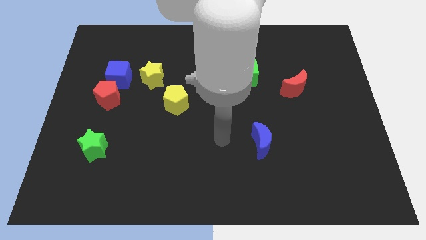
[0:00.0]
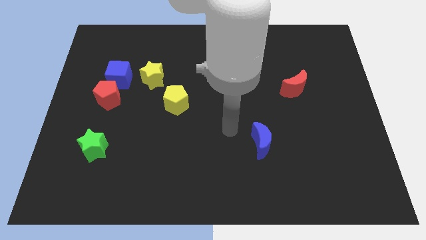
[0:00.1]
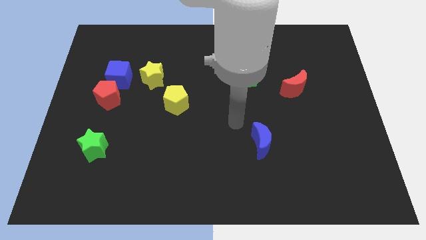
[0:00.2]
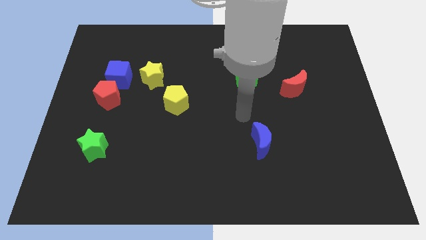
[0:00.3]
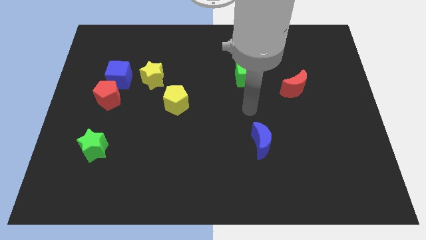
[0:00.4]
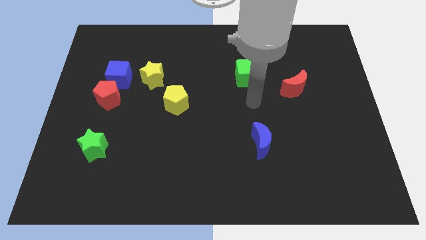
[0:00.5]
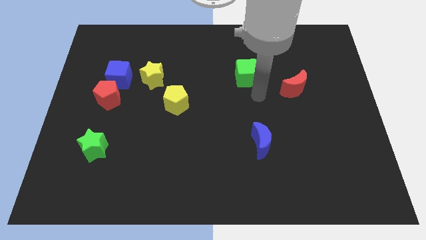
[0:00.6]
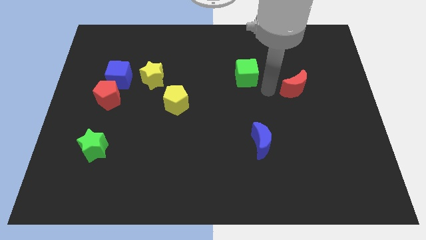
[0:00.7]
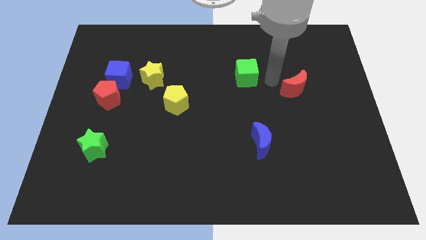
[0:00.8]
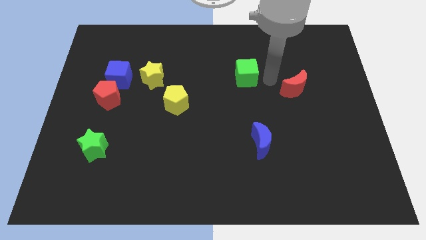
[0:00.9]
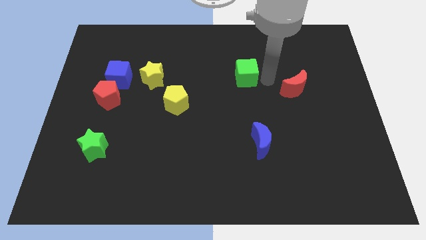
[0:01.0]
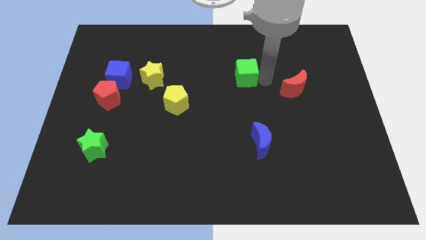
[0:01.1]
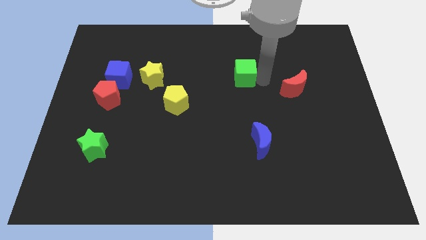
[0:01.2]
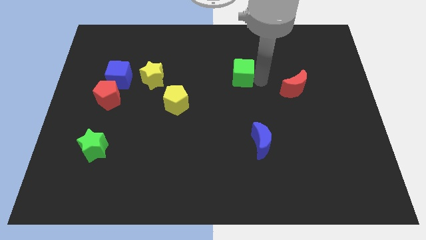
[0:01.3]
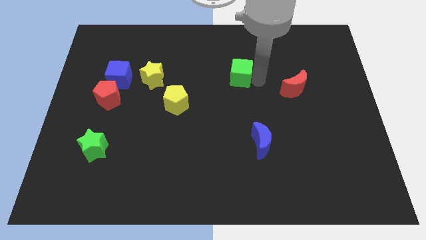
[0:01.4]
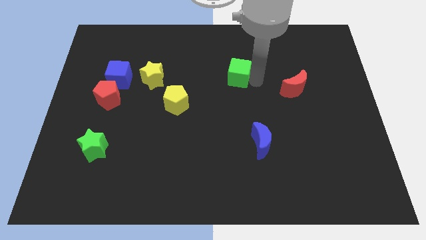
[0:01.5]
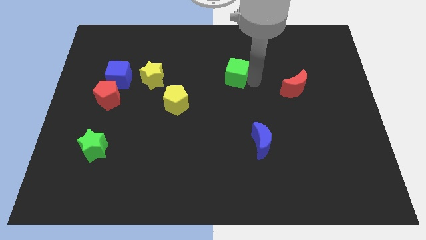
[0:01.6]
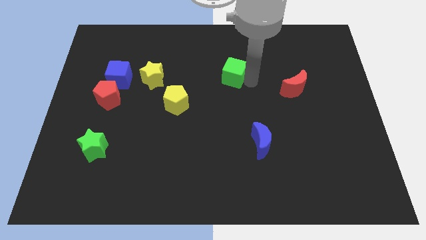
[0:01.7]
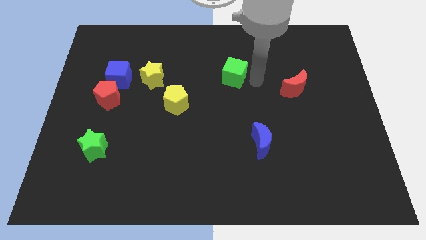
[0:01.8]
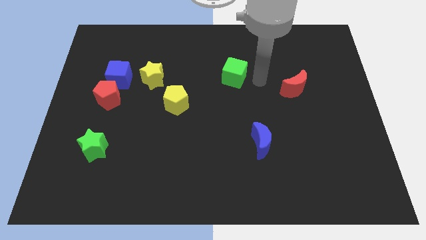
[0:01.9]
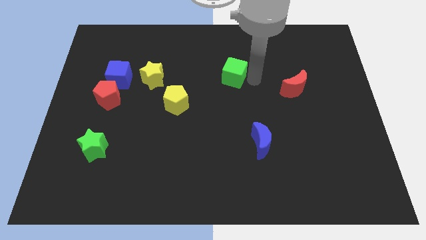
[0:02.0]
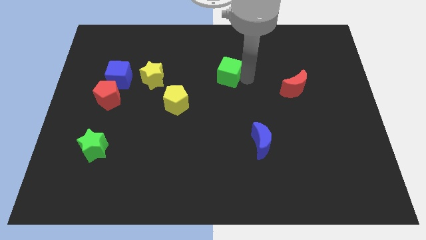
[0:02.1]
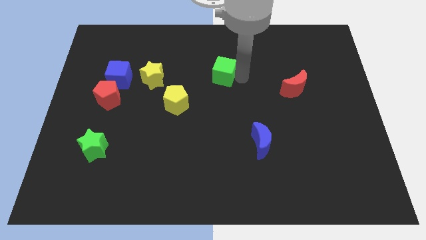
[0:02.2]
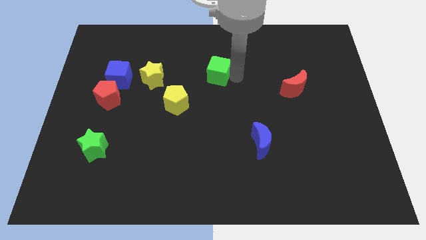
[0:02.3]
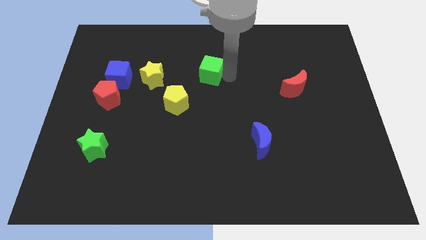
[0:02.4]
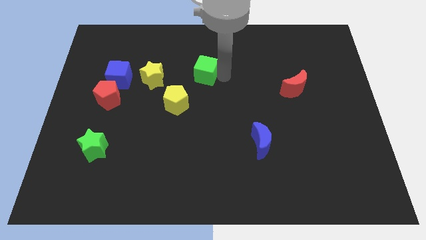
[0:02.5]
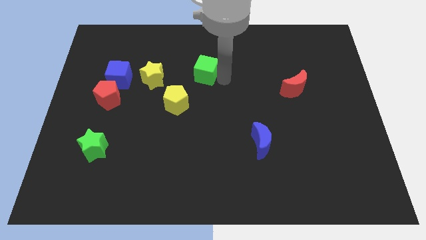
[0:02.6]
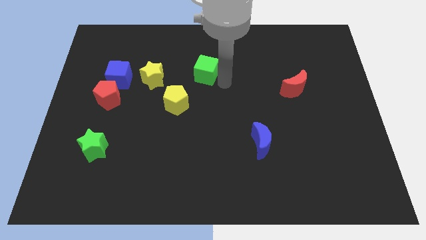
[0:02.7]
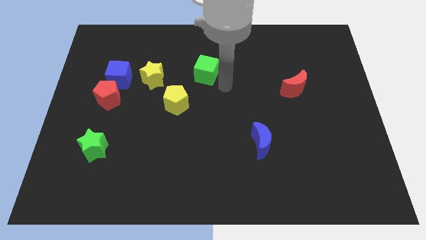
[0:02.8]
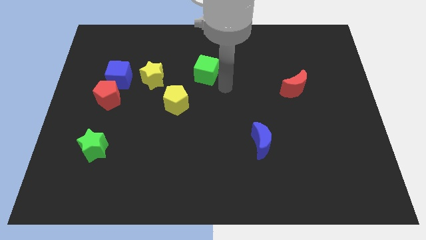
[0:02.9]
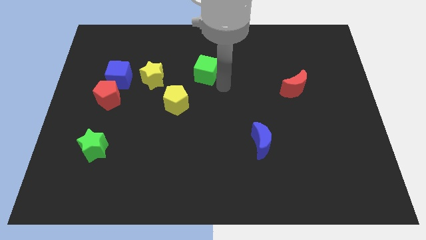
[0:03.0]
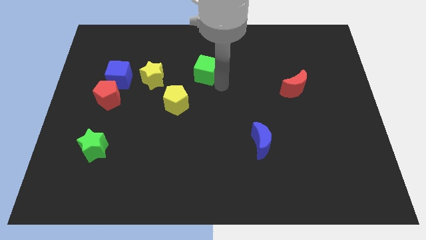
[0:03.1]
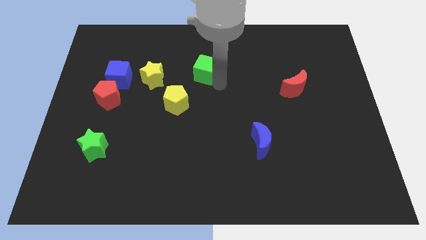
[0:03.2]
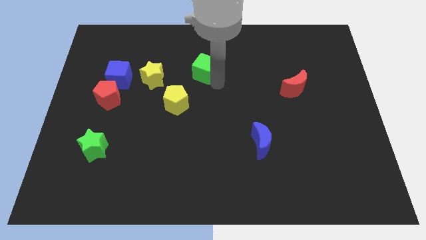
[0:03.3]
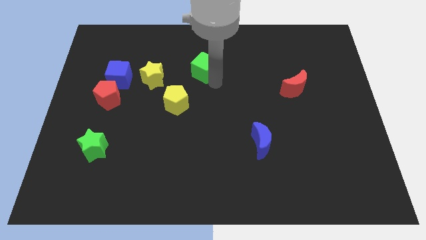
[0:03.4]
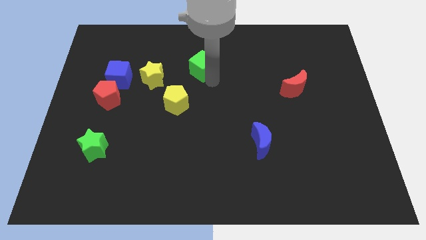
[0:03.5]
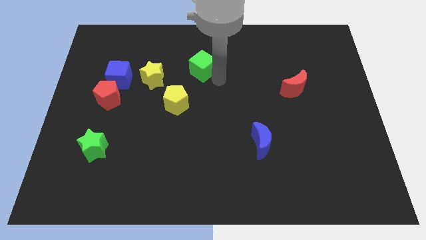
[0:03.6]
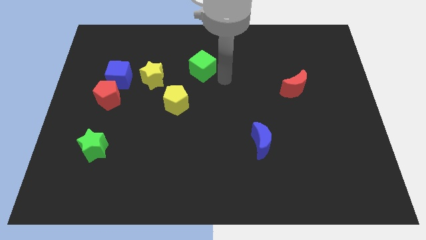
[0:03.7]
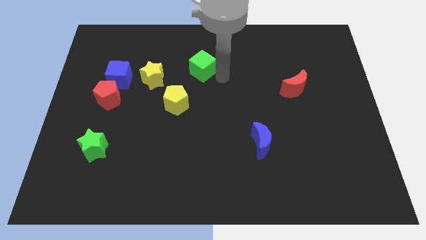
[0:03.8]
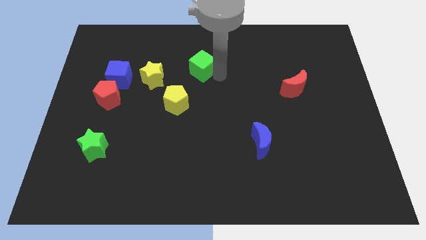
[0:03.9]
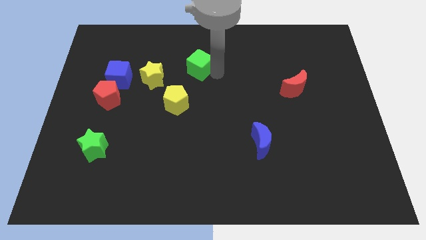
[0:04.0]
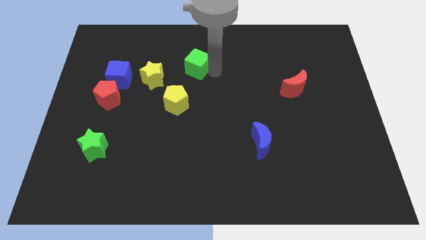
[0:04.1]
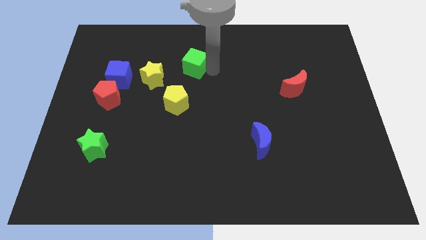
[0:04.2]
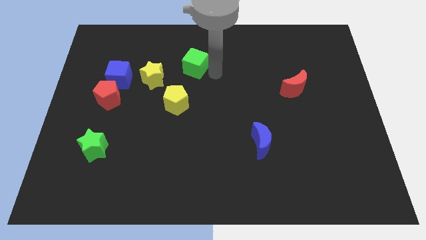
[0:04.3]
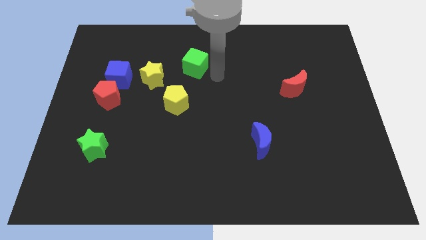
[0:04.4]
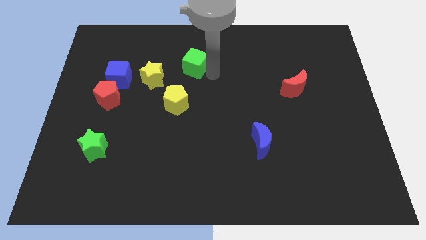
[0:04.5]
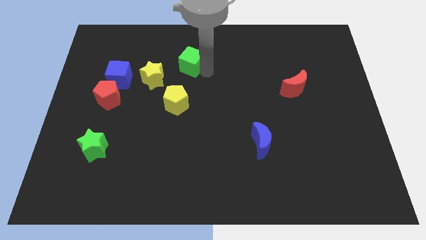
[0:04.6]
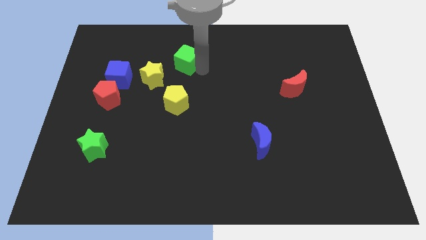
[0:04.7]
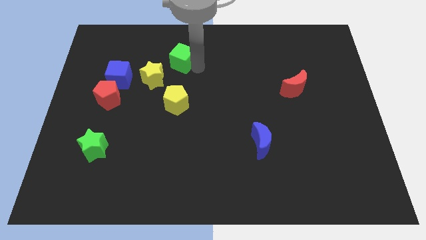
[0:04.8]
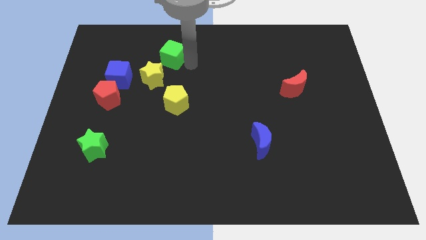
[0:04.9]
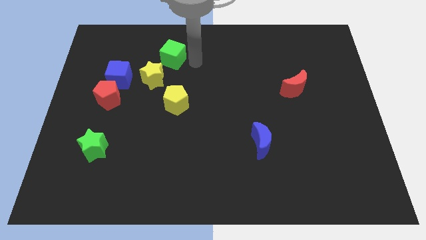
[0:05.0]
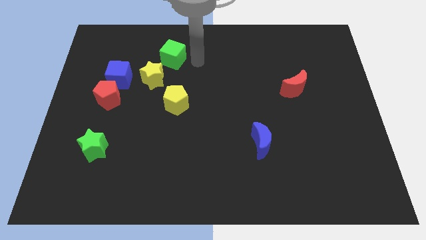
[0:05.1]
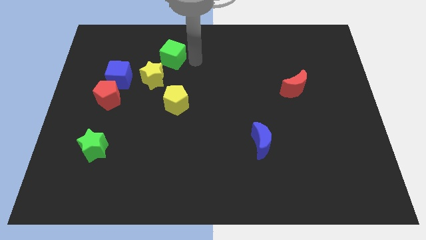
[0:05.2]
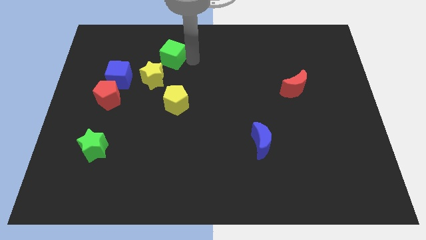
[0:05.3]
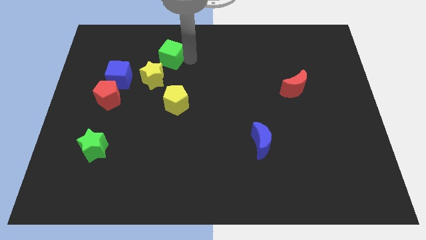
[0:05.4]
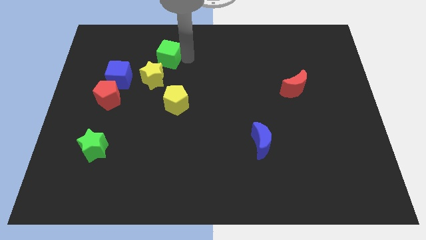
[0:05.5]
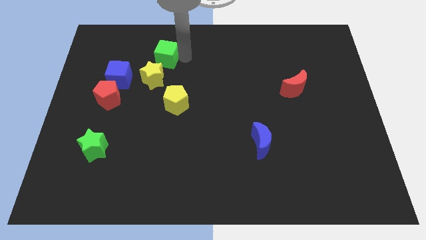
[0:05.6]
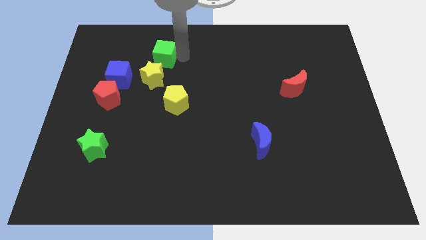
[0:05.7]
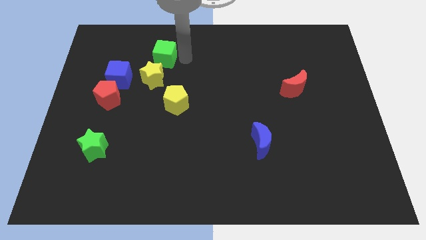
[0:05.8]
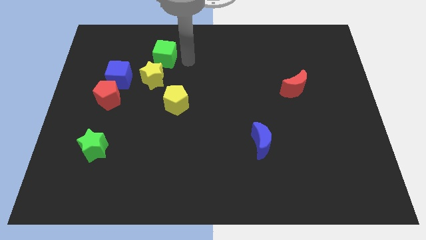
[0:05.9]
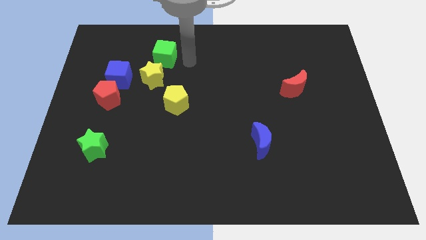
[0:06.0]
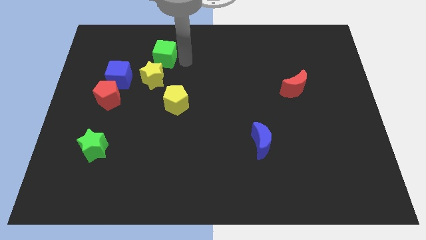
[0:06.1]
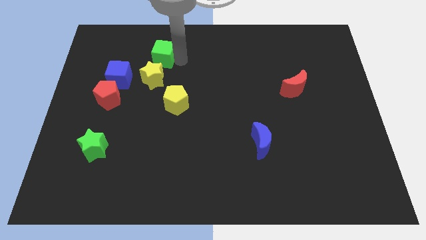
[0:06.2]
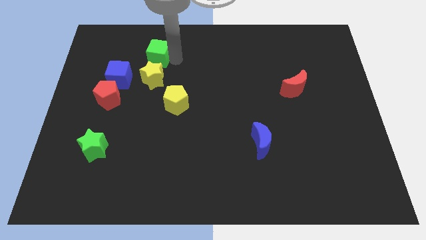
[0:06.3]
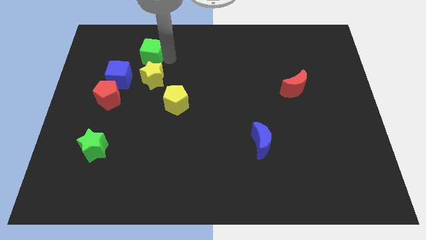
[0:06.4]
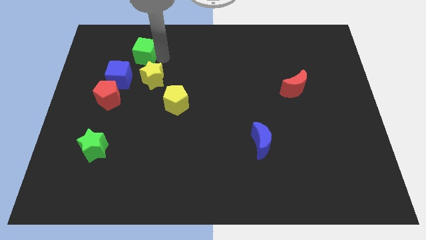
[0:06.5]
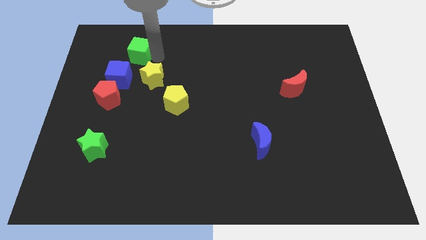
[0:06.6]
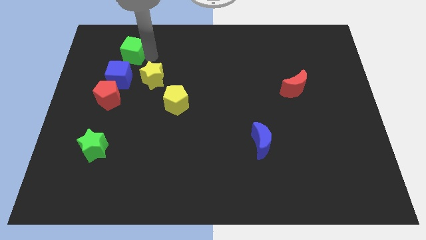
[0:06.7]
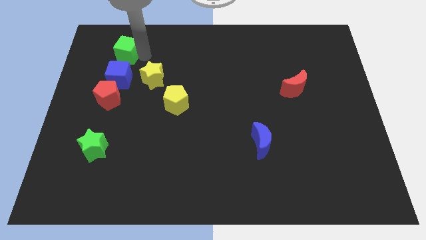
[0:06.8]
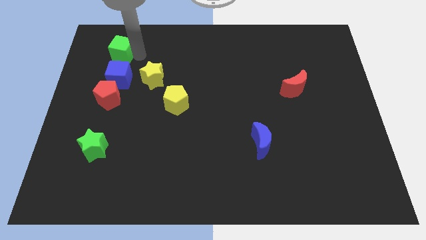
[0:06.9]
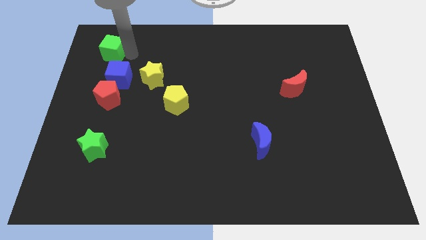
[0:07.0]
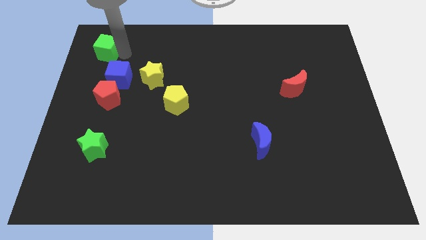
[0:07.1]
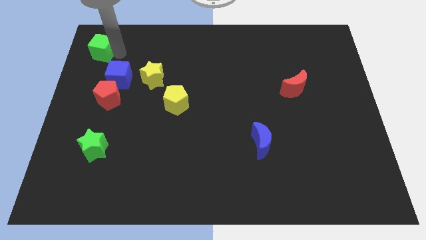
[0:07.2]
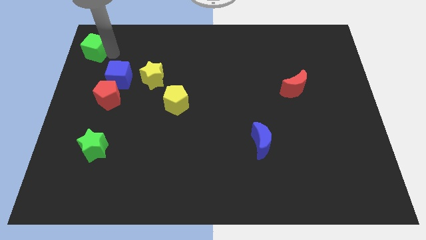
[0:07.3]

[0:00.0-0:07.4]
move the green cube to the top left corner

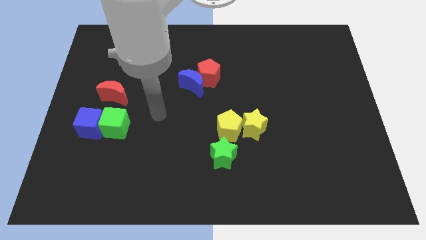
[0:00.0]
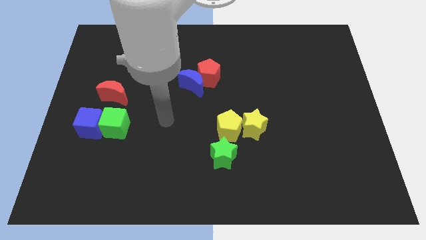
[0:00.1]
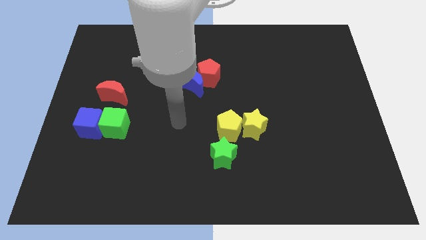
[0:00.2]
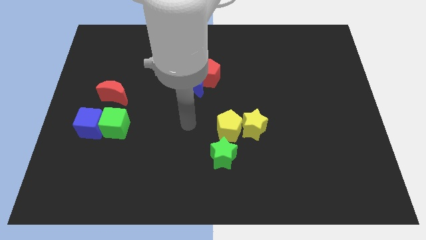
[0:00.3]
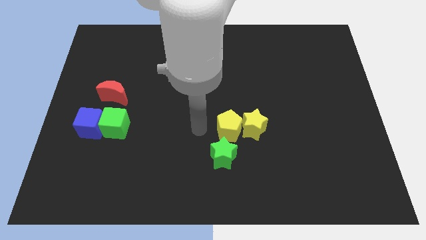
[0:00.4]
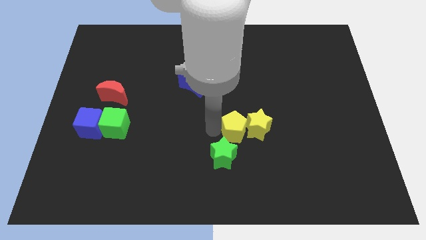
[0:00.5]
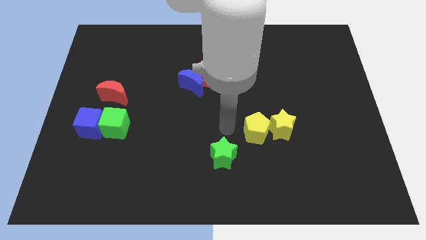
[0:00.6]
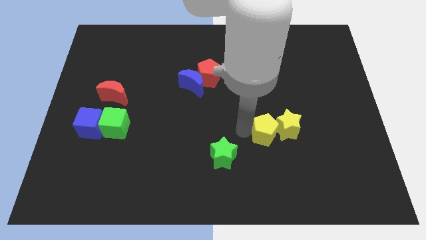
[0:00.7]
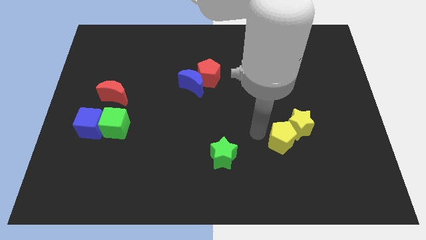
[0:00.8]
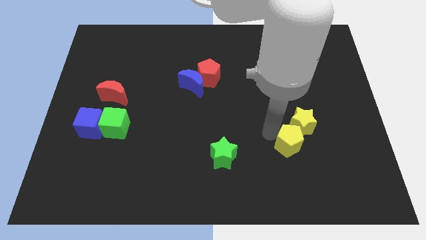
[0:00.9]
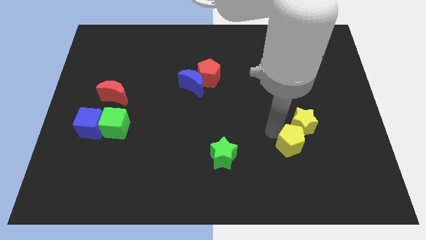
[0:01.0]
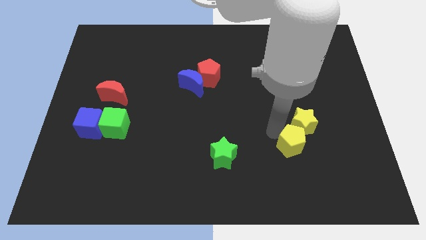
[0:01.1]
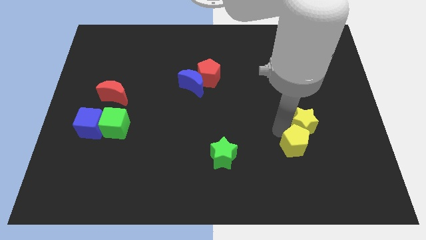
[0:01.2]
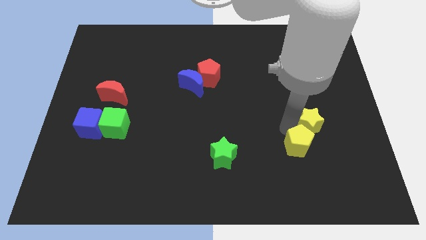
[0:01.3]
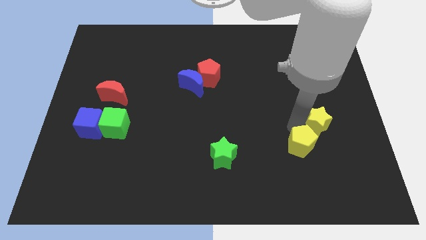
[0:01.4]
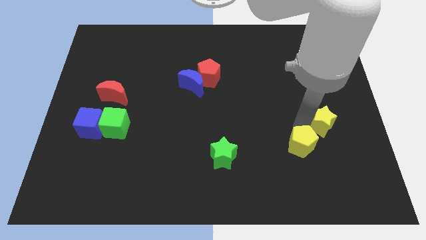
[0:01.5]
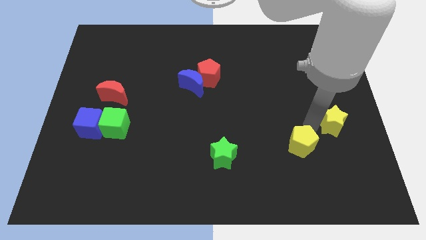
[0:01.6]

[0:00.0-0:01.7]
push the yellow star to the right side of the board
